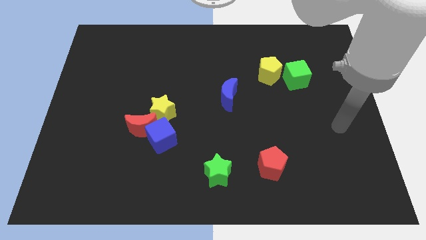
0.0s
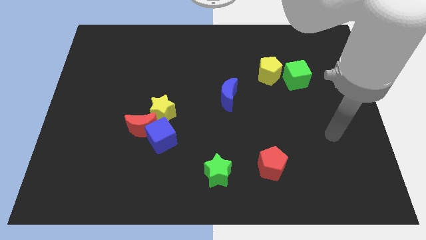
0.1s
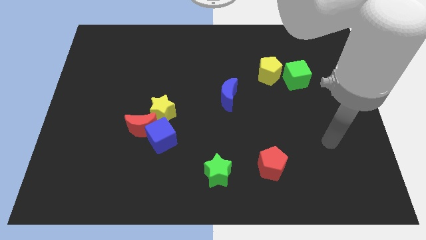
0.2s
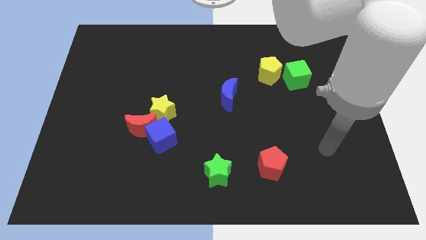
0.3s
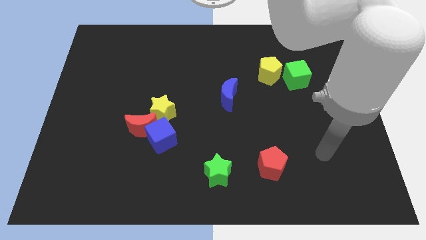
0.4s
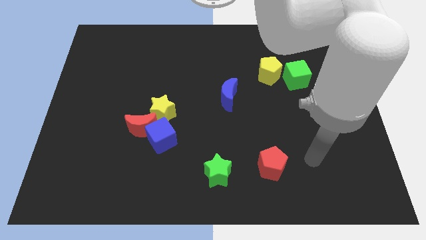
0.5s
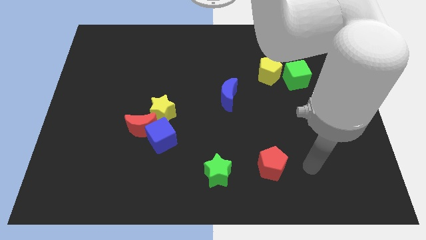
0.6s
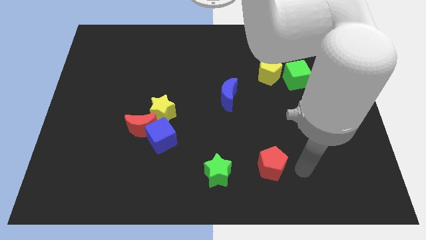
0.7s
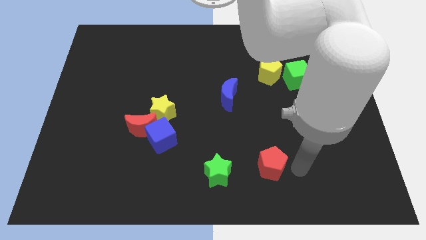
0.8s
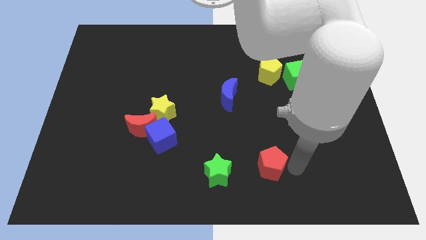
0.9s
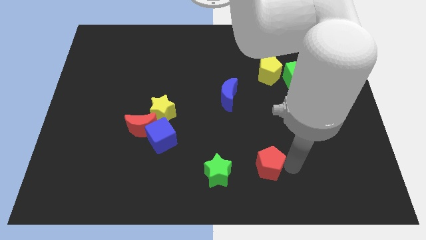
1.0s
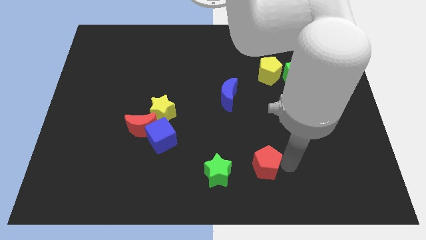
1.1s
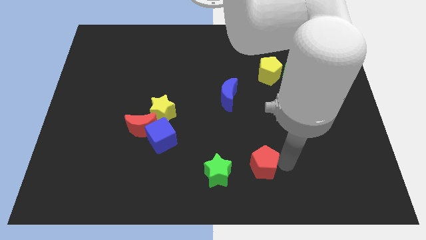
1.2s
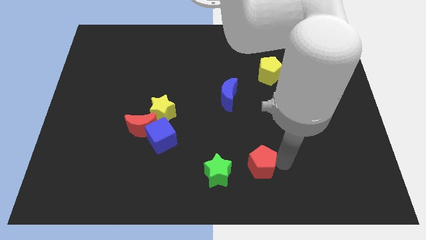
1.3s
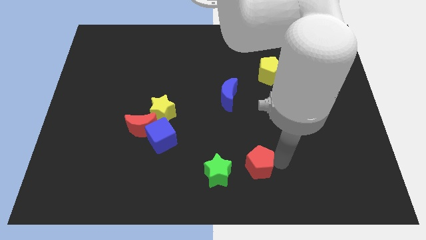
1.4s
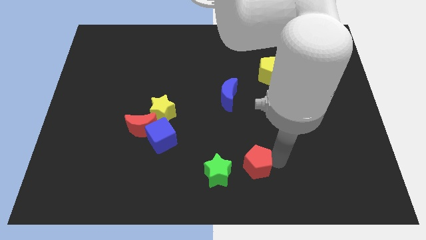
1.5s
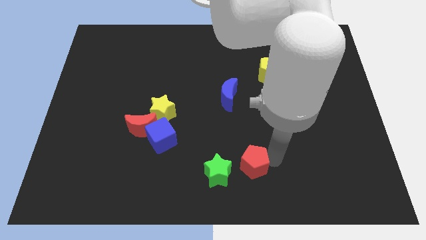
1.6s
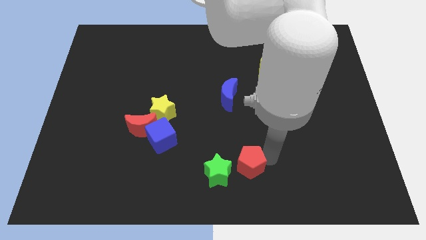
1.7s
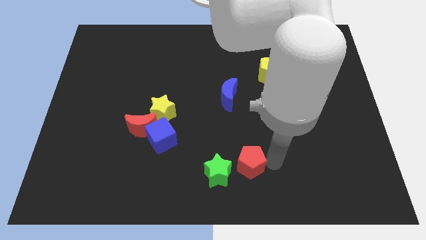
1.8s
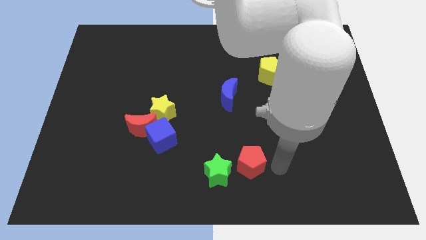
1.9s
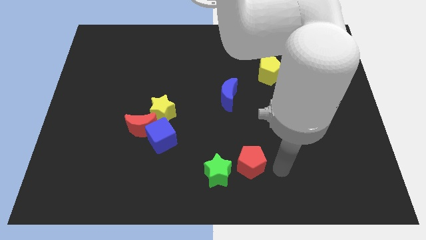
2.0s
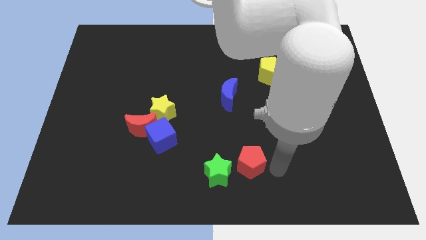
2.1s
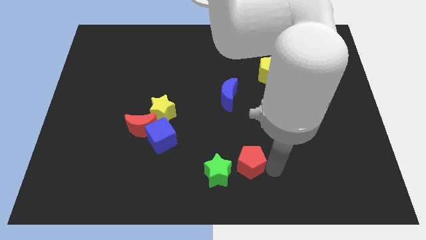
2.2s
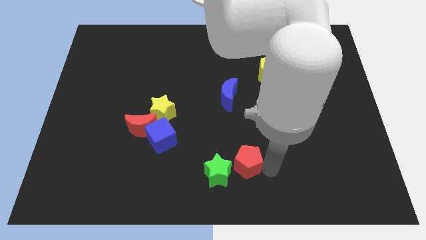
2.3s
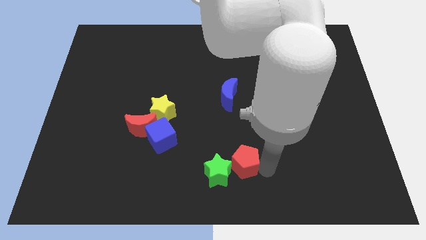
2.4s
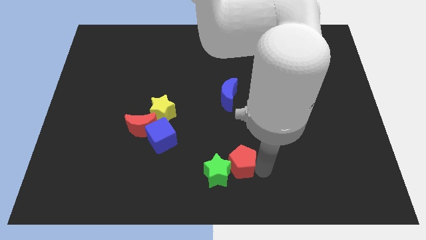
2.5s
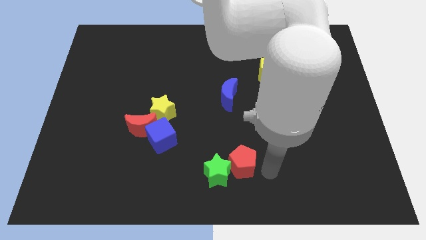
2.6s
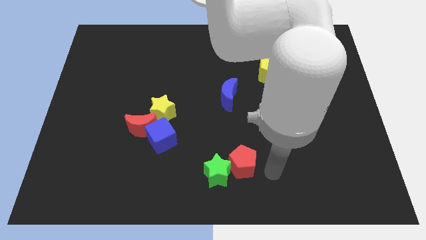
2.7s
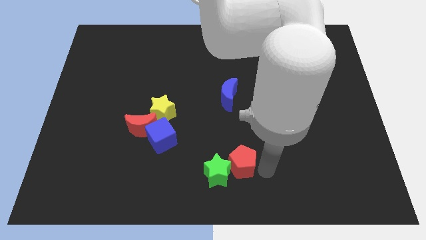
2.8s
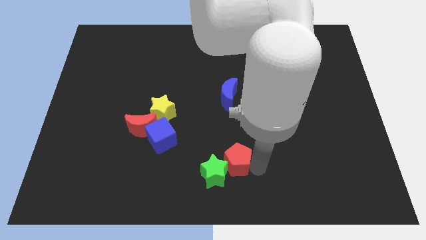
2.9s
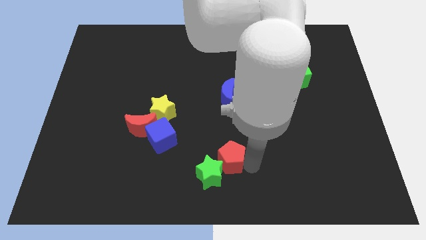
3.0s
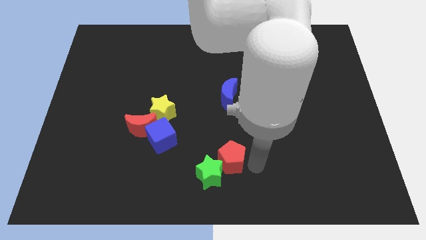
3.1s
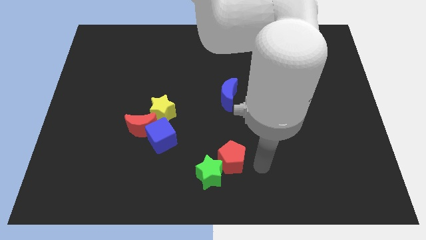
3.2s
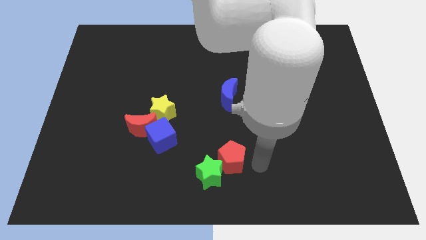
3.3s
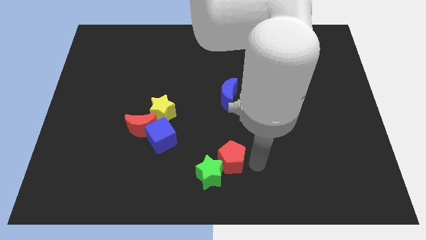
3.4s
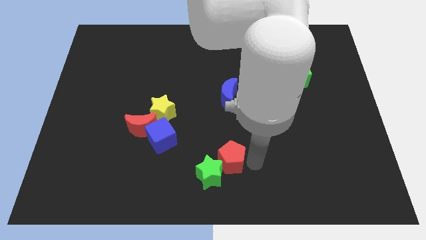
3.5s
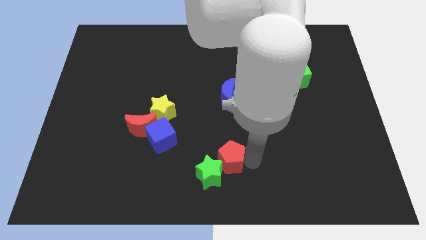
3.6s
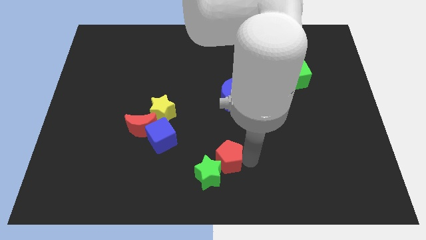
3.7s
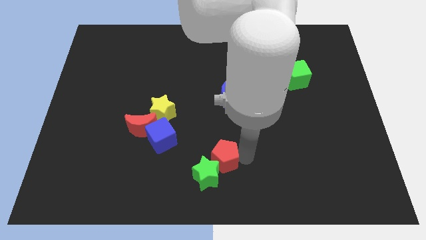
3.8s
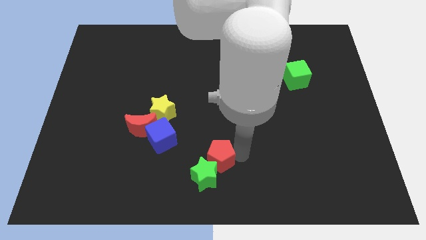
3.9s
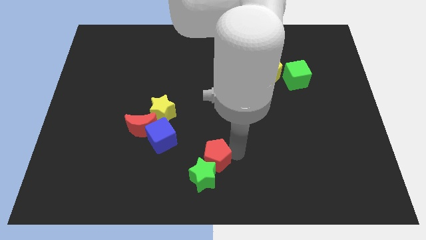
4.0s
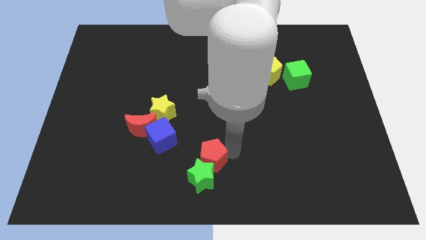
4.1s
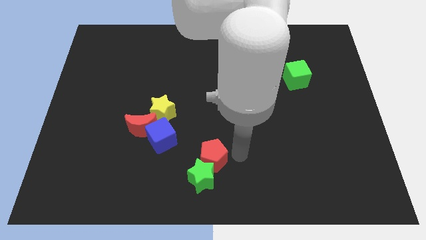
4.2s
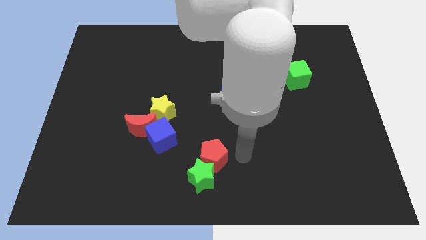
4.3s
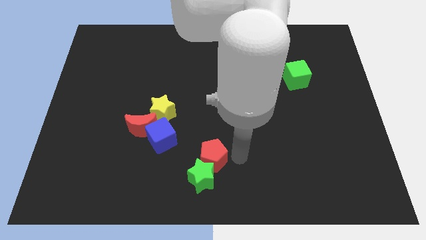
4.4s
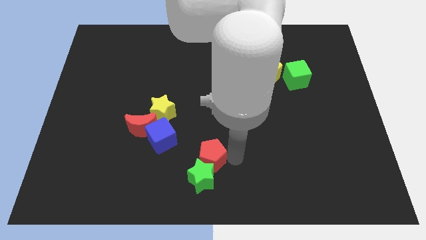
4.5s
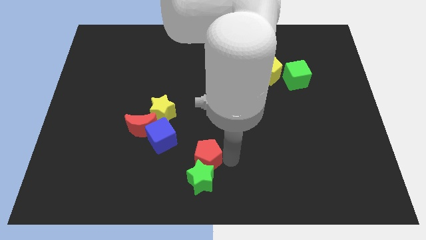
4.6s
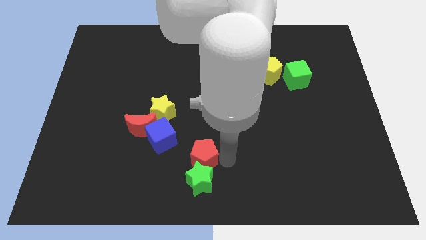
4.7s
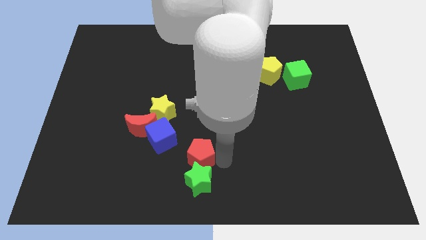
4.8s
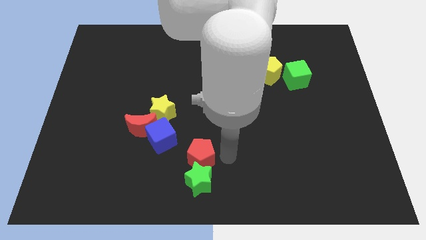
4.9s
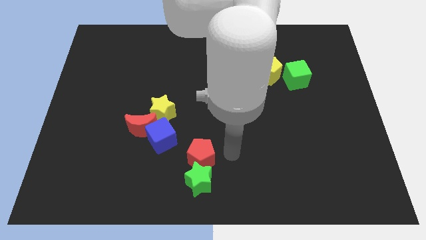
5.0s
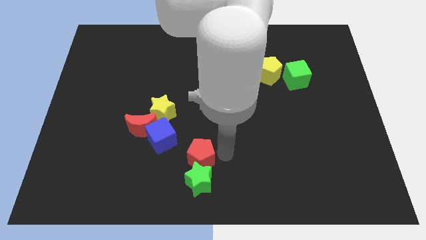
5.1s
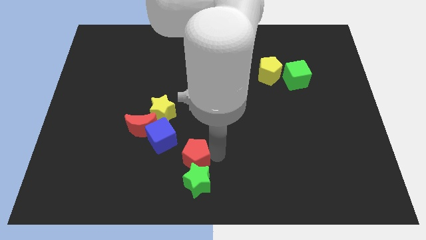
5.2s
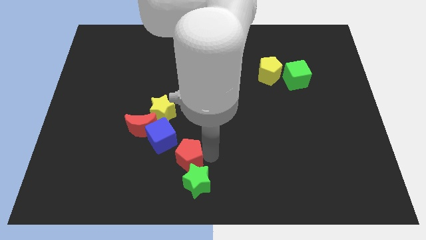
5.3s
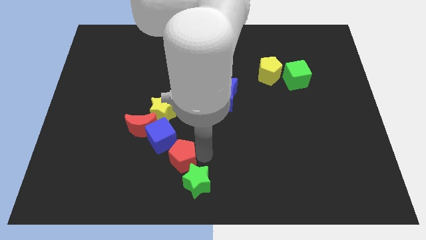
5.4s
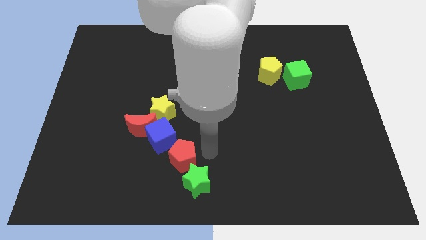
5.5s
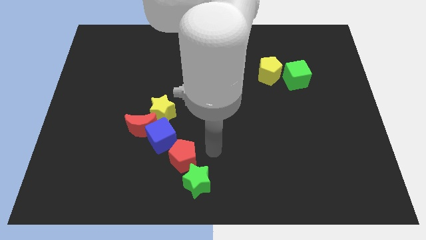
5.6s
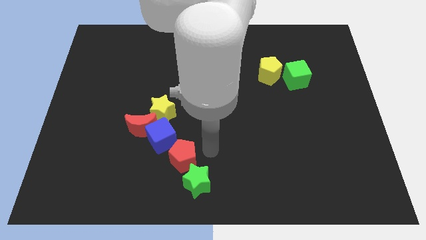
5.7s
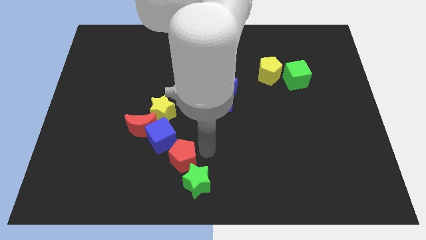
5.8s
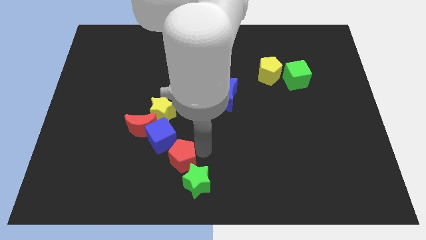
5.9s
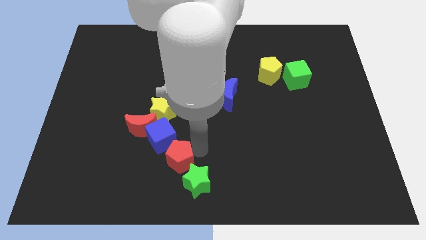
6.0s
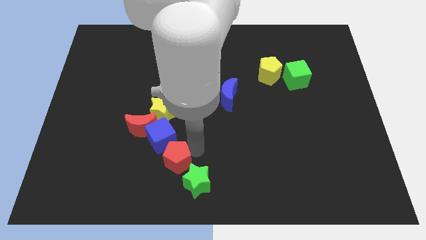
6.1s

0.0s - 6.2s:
slide the red pentagon to the left

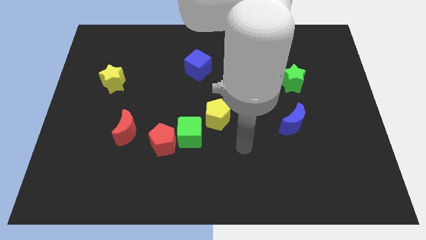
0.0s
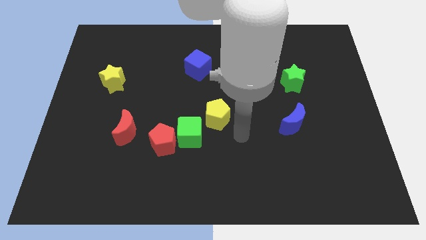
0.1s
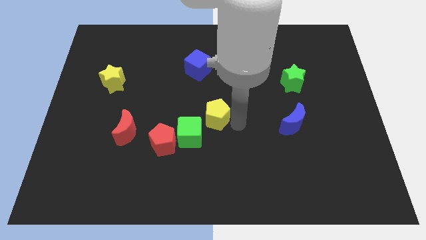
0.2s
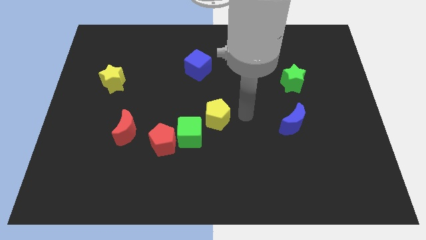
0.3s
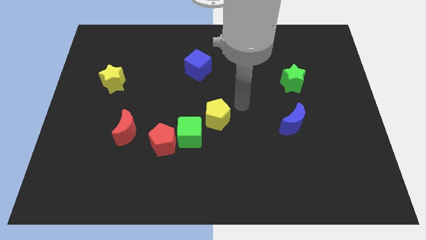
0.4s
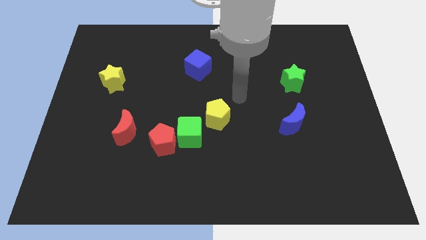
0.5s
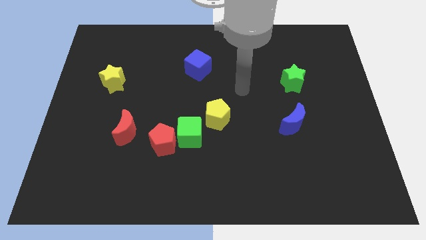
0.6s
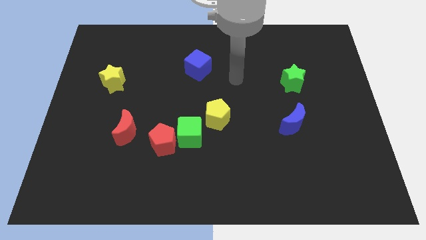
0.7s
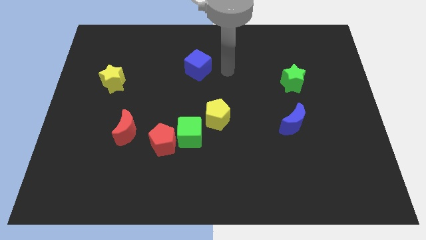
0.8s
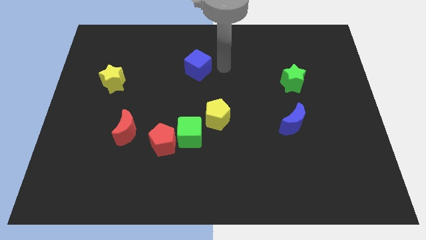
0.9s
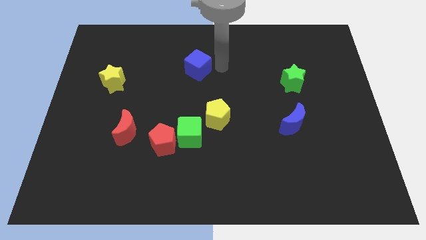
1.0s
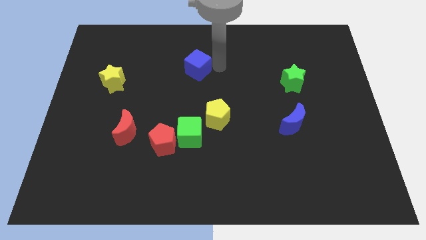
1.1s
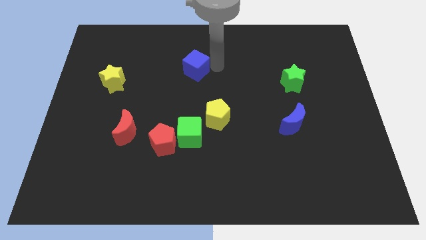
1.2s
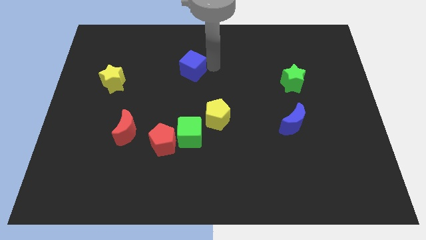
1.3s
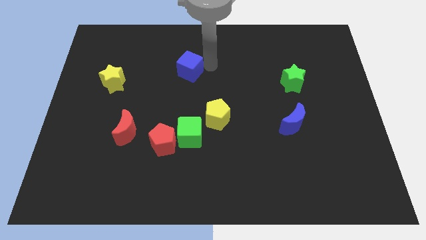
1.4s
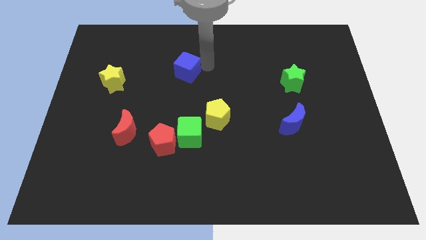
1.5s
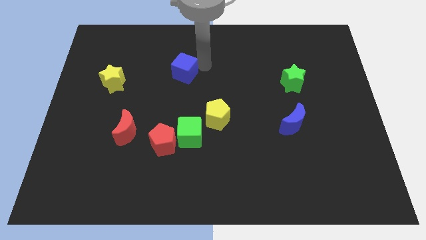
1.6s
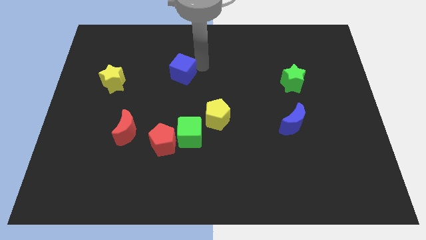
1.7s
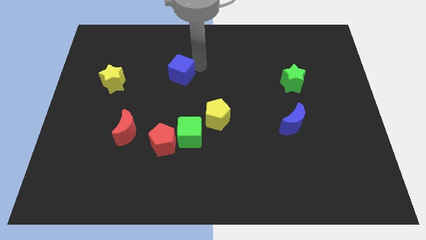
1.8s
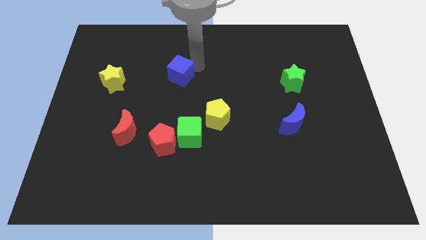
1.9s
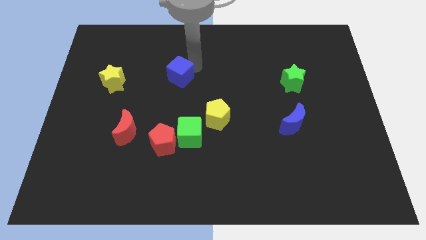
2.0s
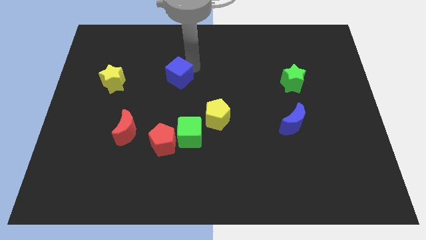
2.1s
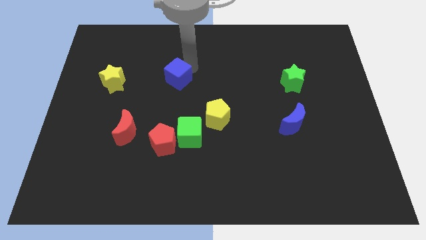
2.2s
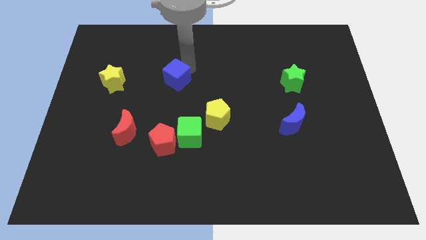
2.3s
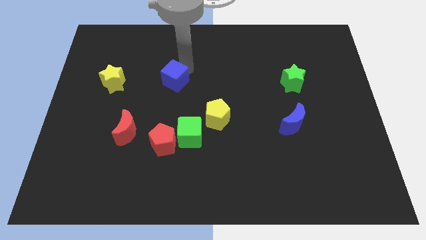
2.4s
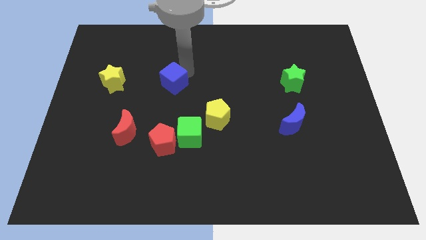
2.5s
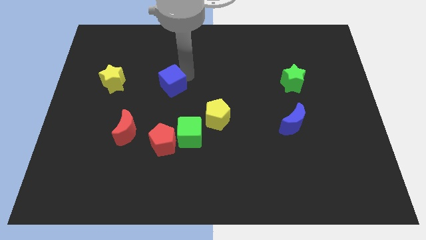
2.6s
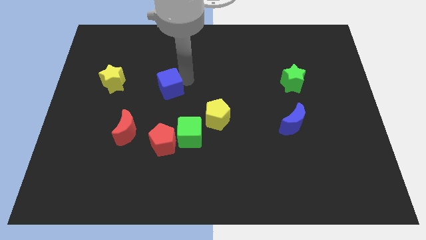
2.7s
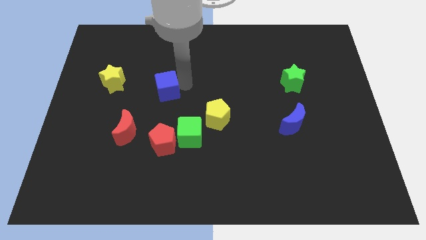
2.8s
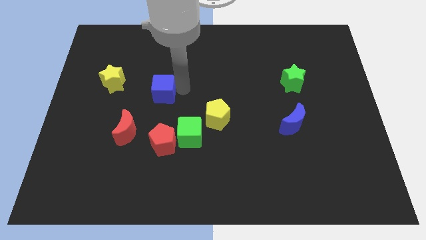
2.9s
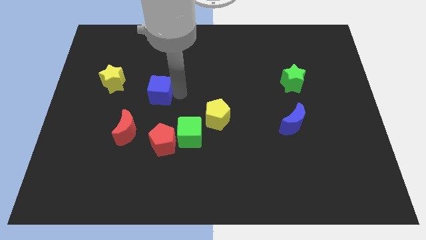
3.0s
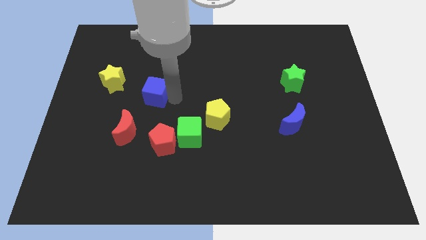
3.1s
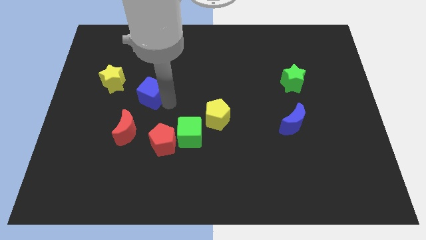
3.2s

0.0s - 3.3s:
move the blue cube slightly to the left
